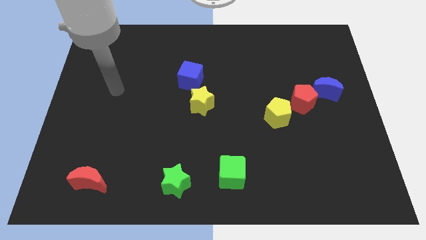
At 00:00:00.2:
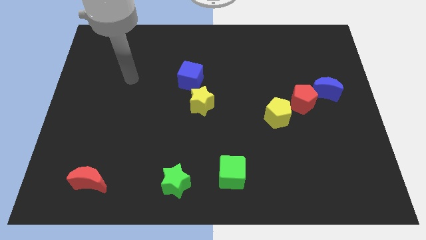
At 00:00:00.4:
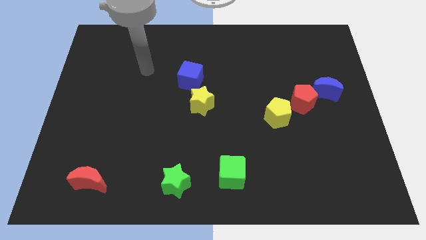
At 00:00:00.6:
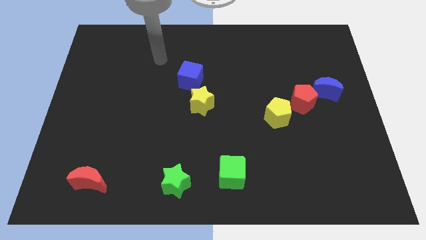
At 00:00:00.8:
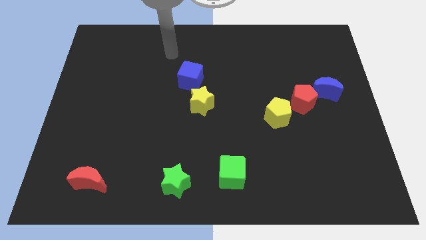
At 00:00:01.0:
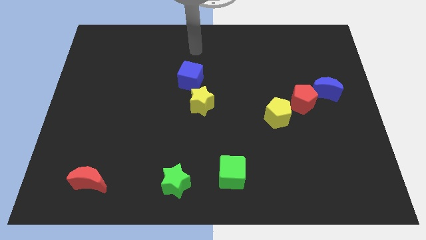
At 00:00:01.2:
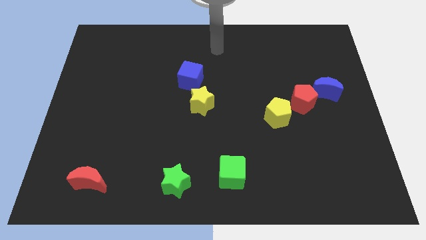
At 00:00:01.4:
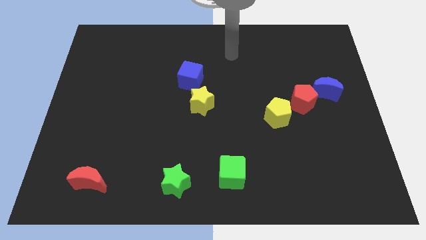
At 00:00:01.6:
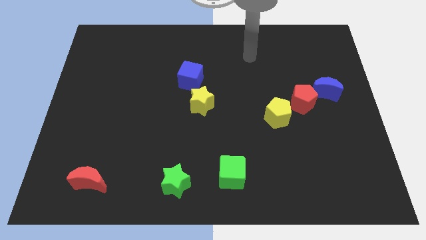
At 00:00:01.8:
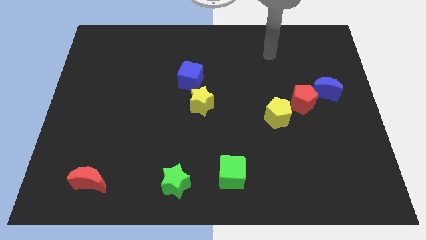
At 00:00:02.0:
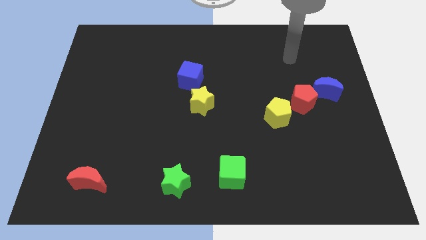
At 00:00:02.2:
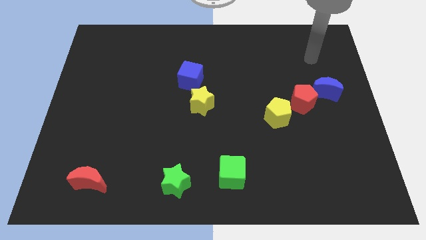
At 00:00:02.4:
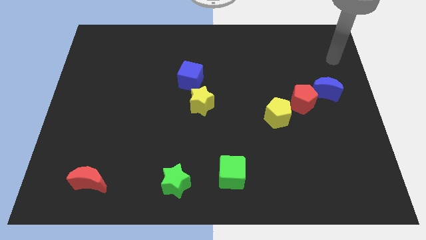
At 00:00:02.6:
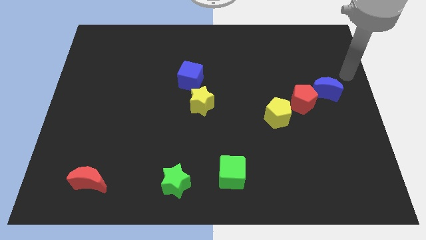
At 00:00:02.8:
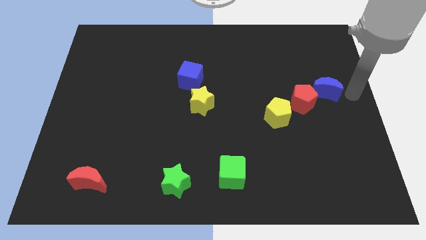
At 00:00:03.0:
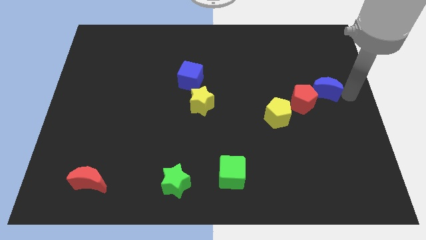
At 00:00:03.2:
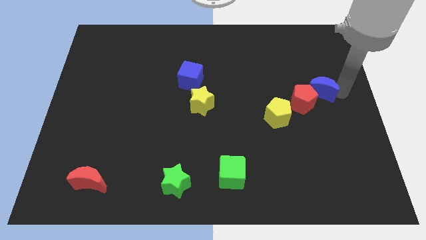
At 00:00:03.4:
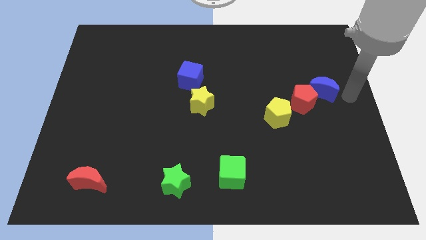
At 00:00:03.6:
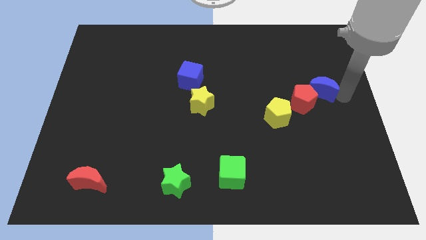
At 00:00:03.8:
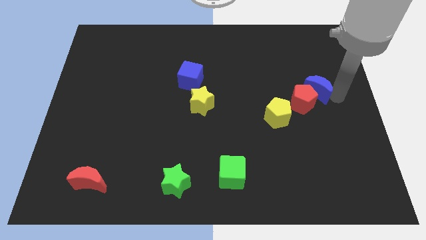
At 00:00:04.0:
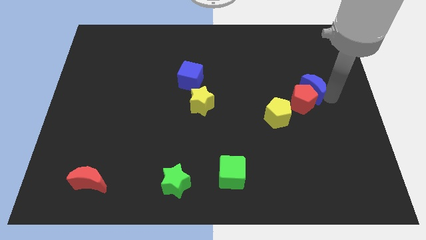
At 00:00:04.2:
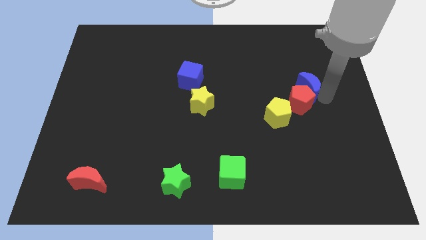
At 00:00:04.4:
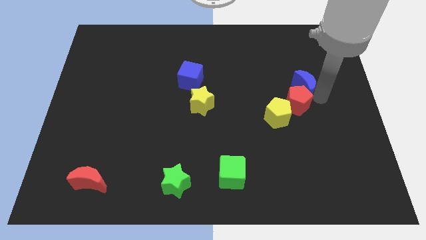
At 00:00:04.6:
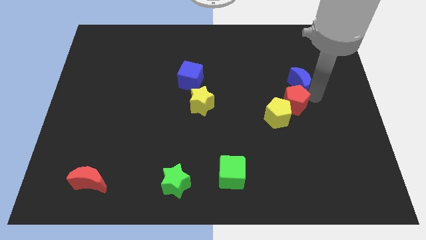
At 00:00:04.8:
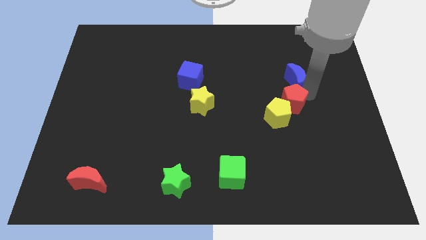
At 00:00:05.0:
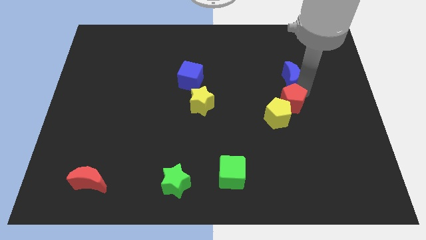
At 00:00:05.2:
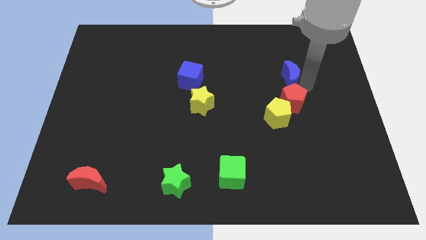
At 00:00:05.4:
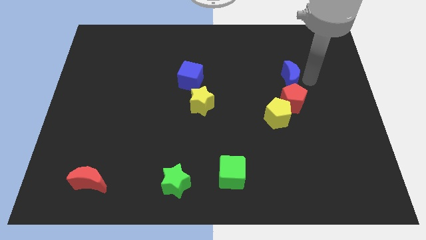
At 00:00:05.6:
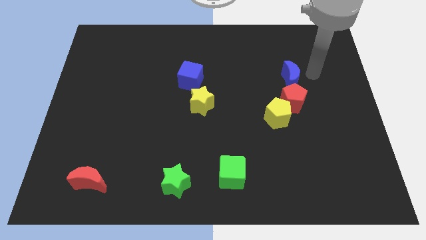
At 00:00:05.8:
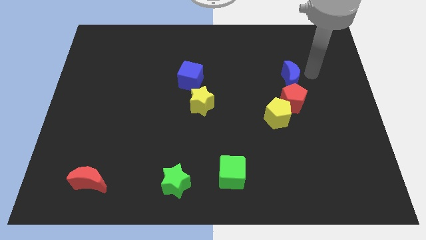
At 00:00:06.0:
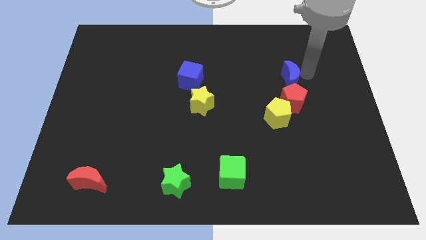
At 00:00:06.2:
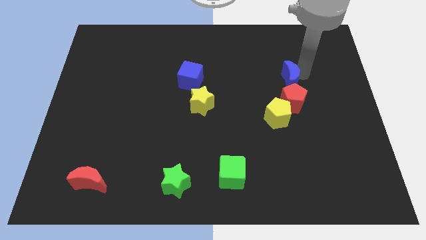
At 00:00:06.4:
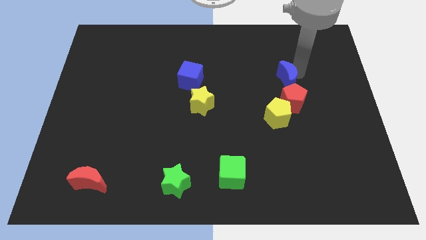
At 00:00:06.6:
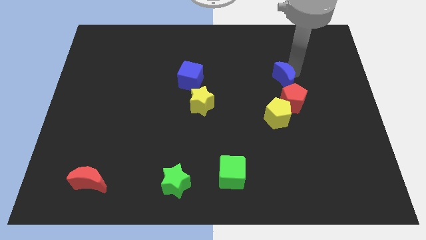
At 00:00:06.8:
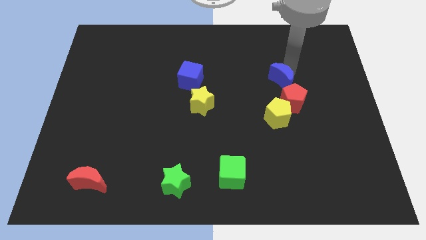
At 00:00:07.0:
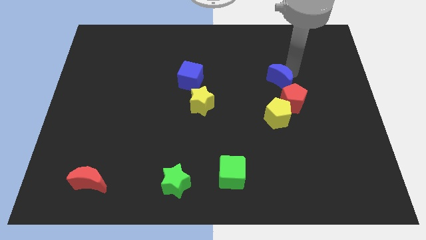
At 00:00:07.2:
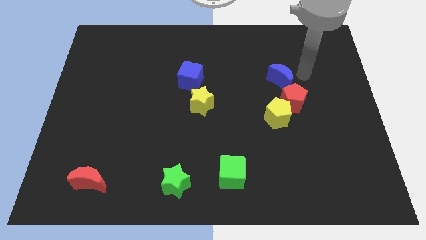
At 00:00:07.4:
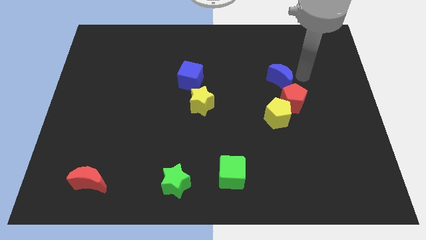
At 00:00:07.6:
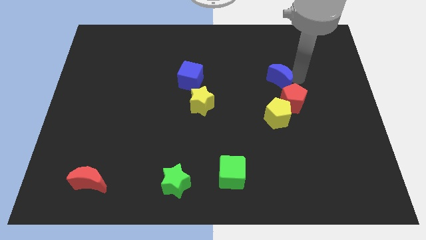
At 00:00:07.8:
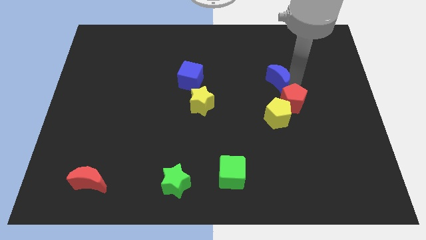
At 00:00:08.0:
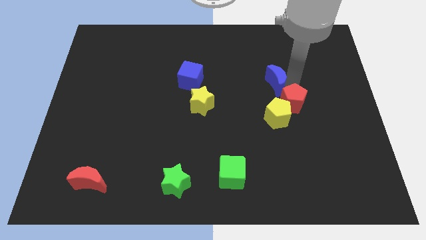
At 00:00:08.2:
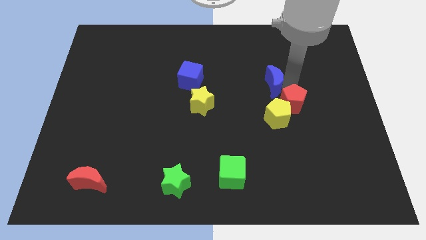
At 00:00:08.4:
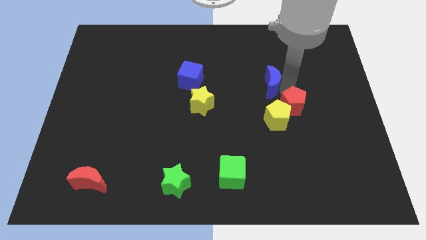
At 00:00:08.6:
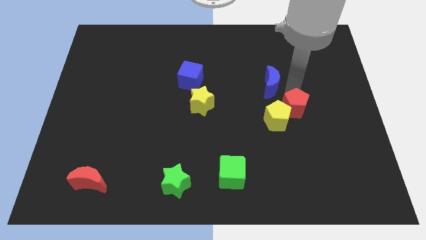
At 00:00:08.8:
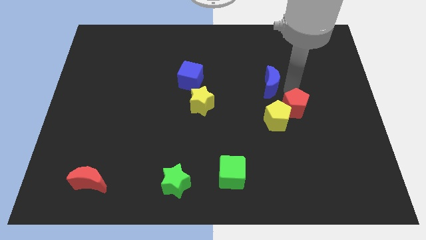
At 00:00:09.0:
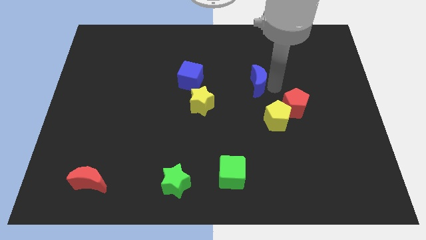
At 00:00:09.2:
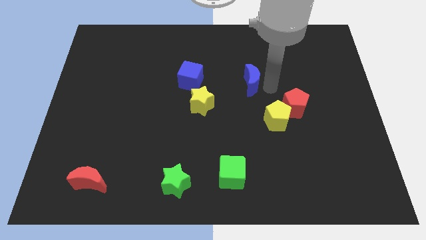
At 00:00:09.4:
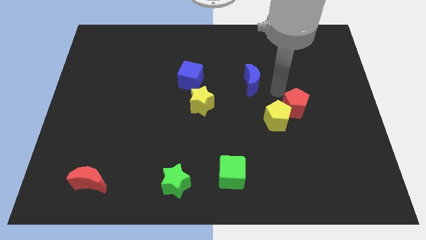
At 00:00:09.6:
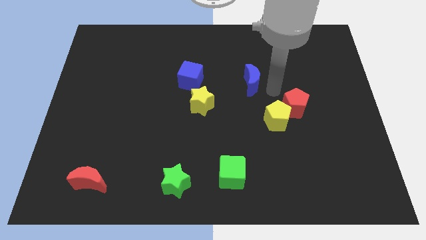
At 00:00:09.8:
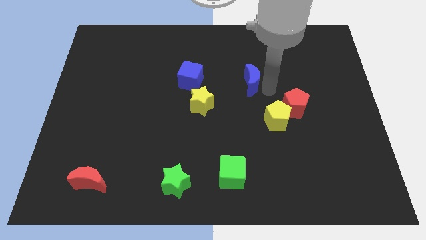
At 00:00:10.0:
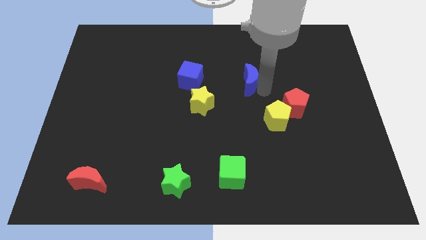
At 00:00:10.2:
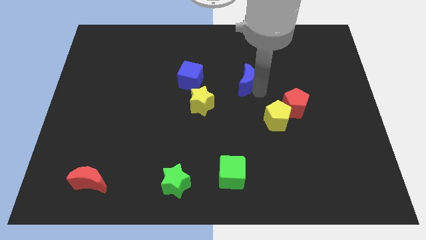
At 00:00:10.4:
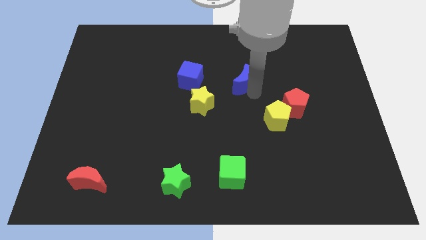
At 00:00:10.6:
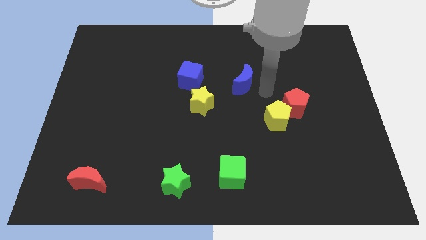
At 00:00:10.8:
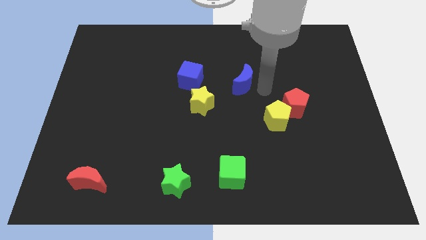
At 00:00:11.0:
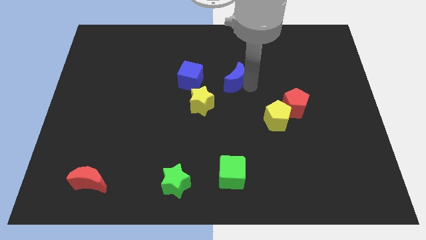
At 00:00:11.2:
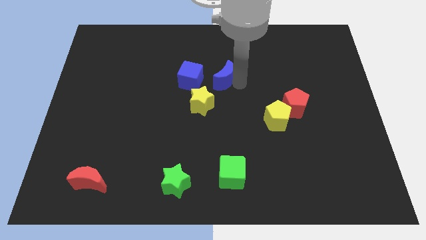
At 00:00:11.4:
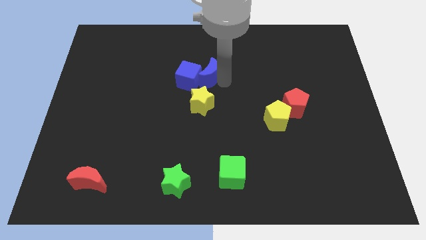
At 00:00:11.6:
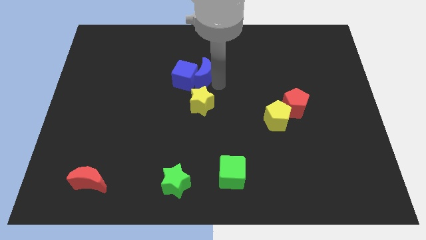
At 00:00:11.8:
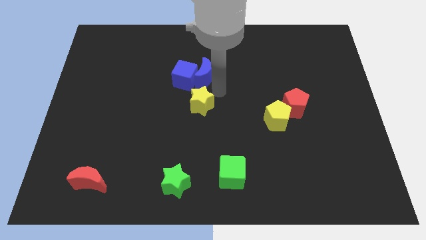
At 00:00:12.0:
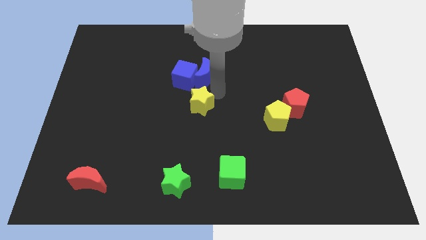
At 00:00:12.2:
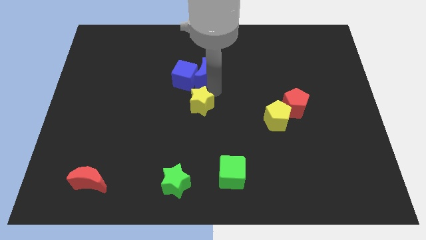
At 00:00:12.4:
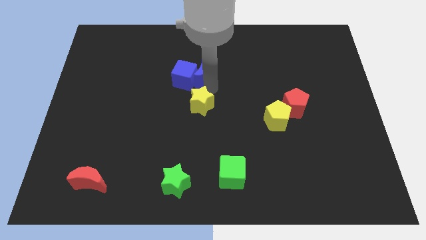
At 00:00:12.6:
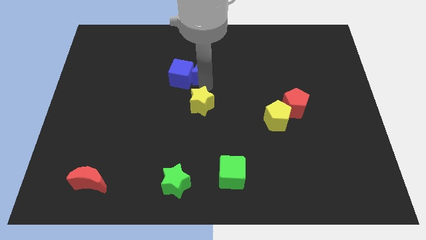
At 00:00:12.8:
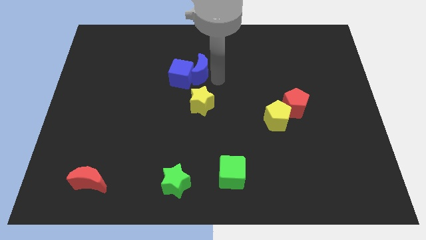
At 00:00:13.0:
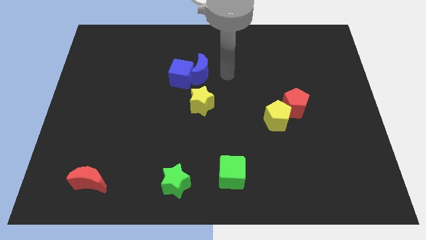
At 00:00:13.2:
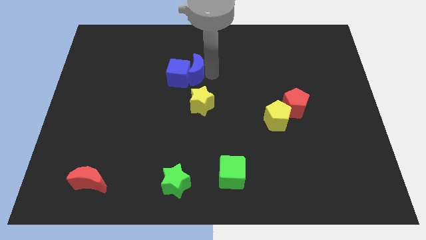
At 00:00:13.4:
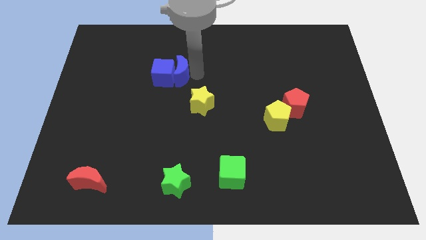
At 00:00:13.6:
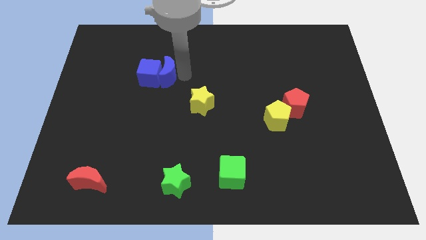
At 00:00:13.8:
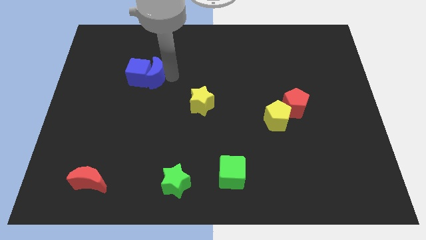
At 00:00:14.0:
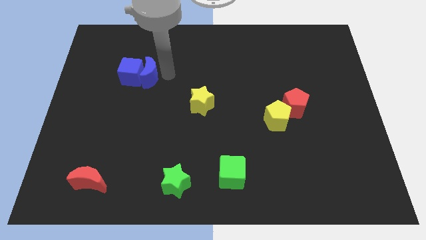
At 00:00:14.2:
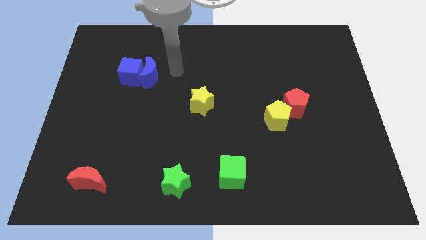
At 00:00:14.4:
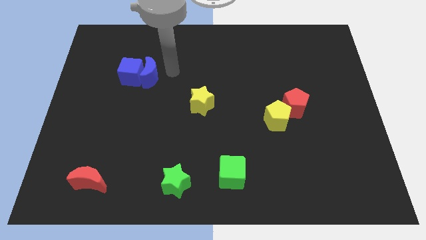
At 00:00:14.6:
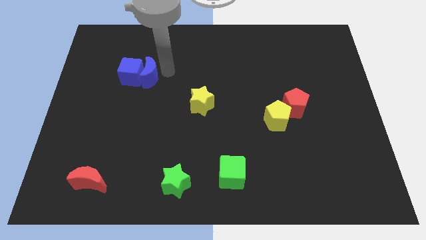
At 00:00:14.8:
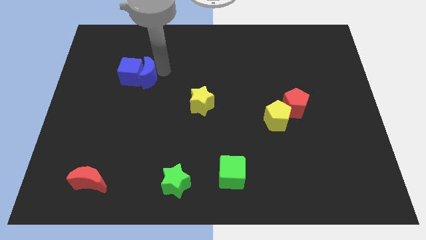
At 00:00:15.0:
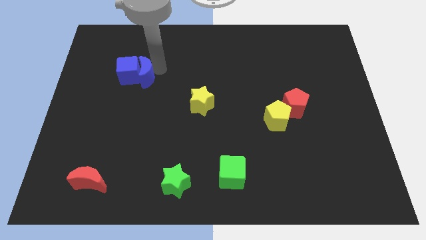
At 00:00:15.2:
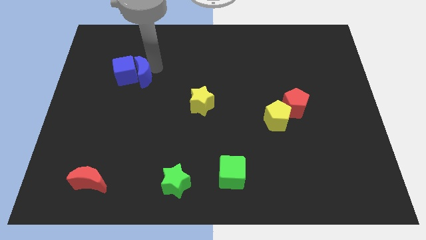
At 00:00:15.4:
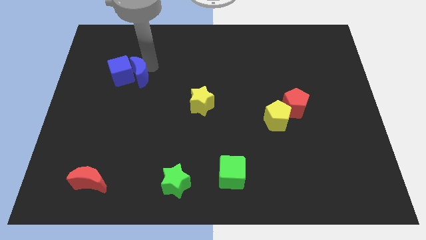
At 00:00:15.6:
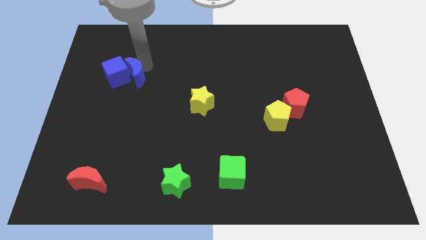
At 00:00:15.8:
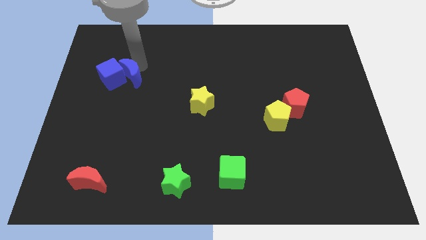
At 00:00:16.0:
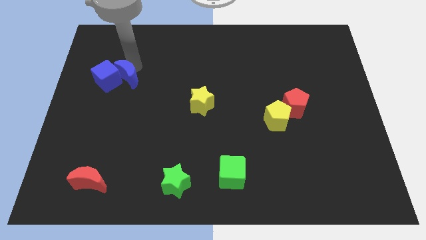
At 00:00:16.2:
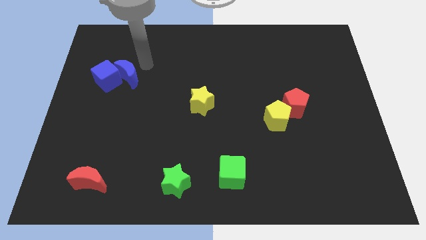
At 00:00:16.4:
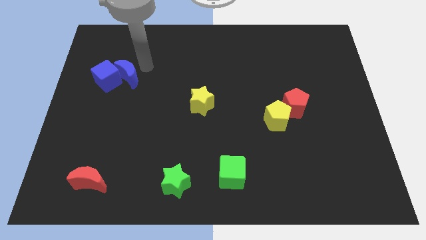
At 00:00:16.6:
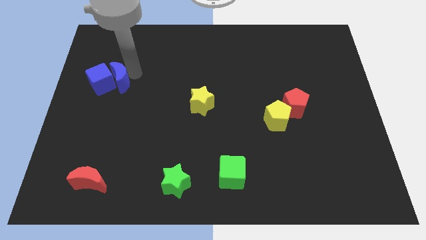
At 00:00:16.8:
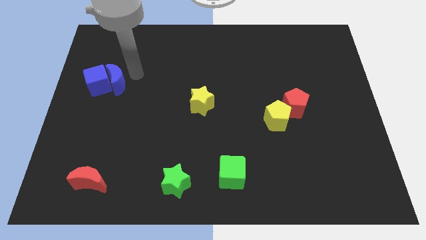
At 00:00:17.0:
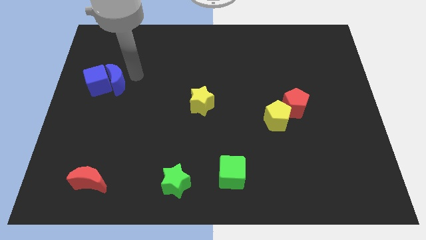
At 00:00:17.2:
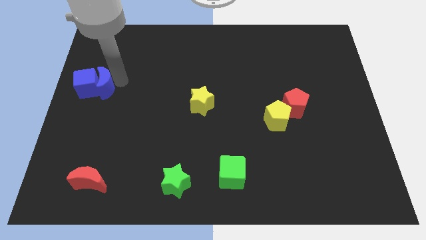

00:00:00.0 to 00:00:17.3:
move the blue moon to the center left
